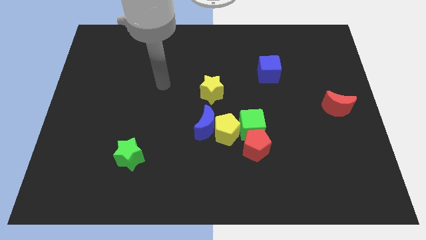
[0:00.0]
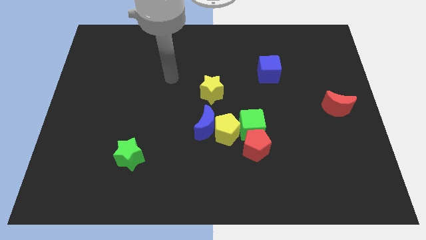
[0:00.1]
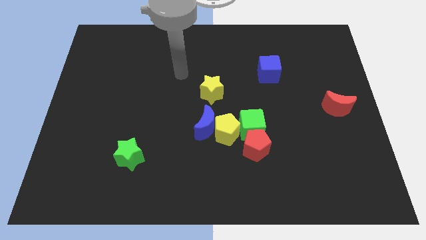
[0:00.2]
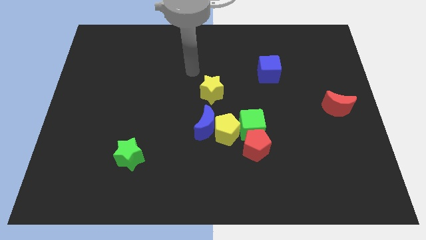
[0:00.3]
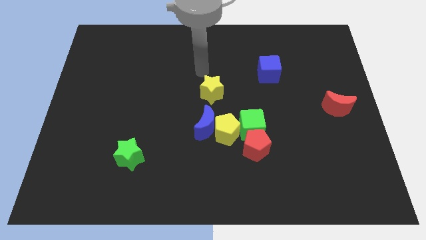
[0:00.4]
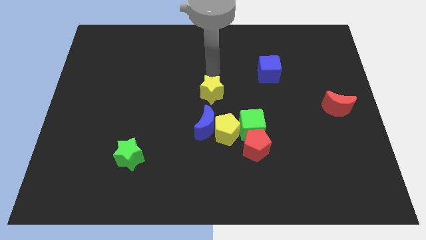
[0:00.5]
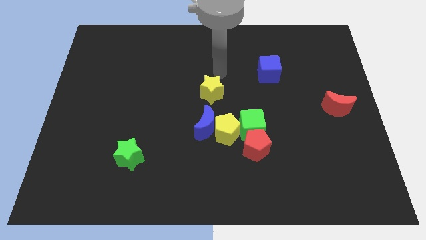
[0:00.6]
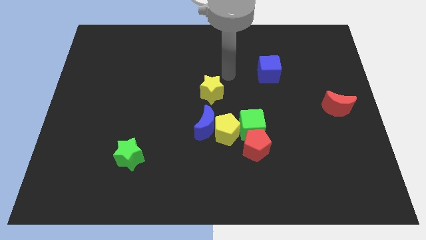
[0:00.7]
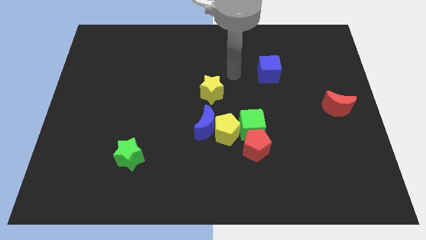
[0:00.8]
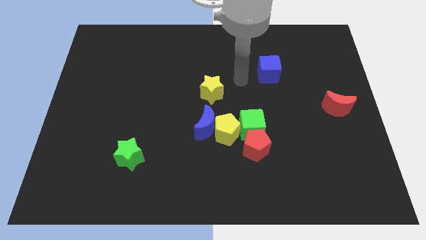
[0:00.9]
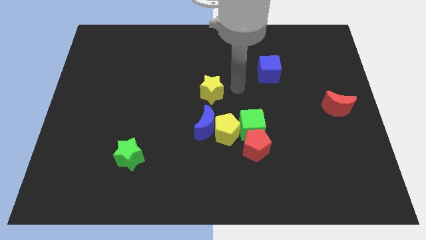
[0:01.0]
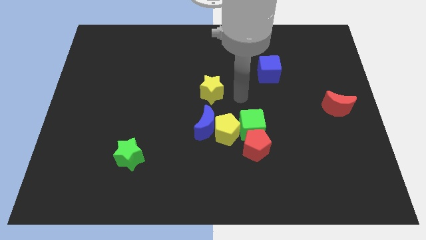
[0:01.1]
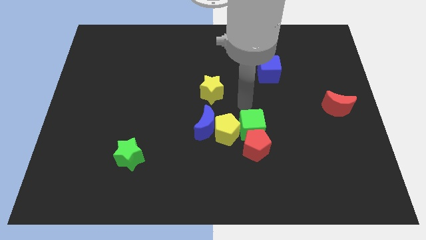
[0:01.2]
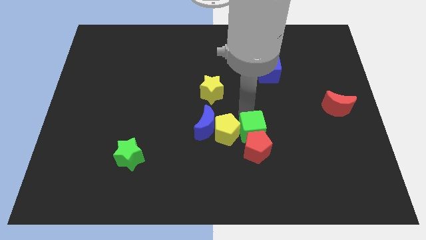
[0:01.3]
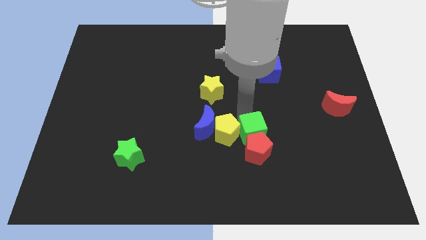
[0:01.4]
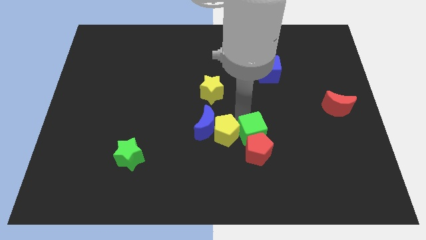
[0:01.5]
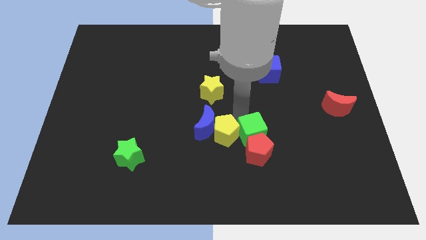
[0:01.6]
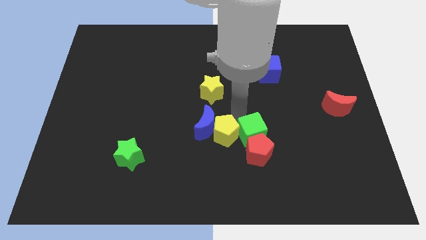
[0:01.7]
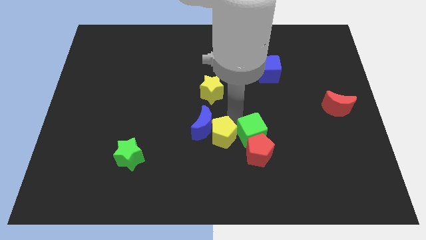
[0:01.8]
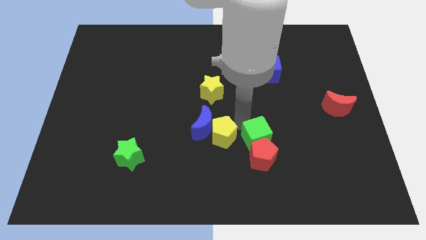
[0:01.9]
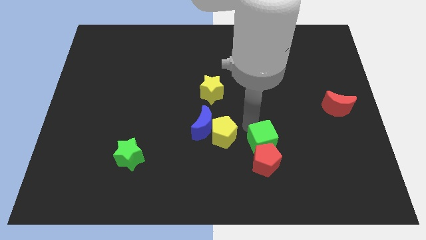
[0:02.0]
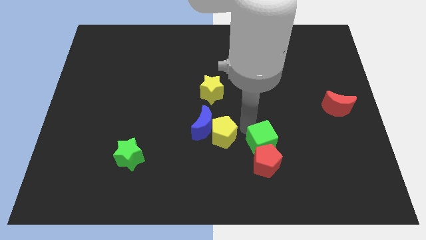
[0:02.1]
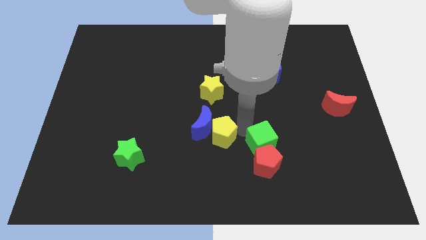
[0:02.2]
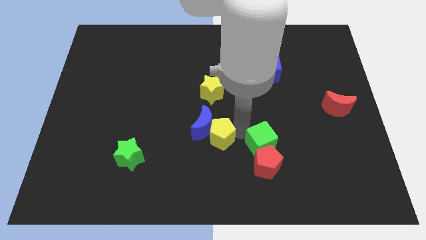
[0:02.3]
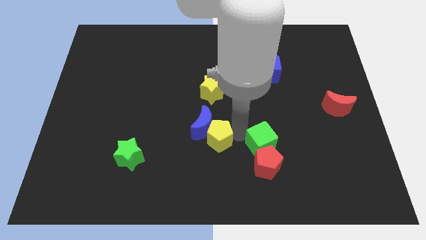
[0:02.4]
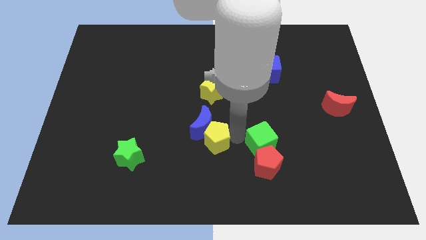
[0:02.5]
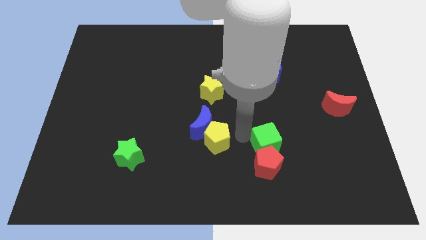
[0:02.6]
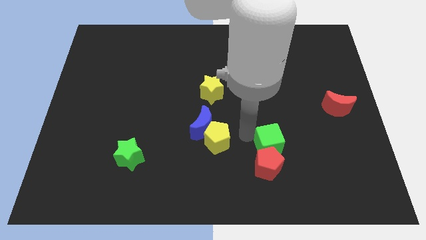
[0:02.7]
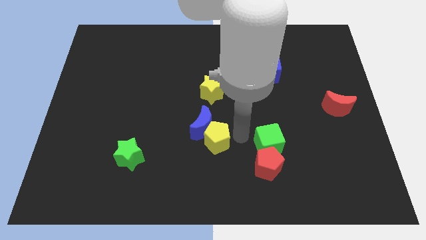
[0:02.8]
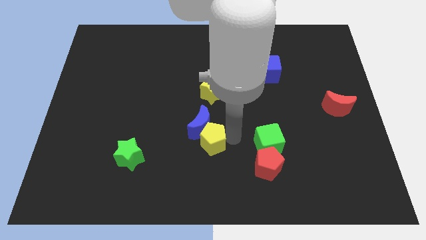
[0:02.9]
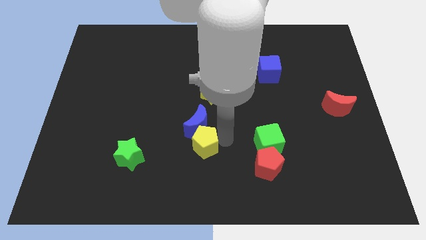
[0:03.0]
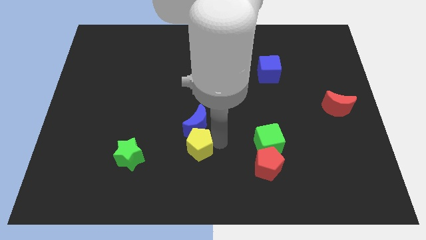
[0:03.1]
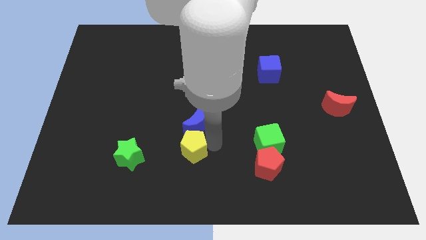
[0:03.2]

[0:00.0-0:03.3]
separate the yellow pentagon from the group of blocks

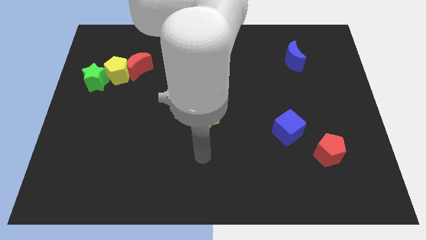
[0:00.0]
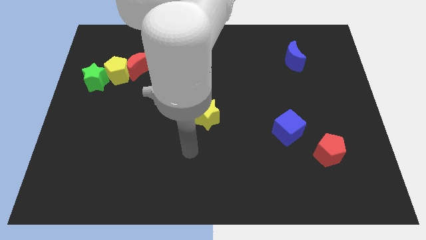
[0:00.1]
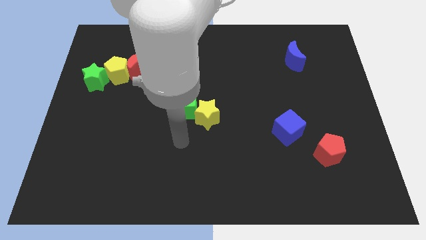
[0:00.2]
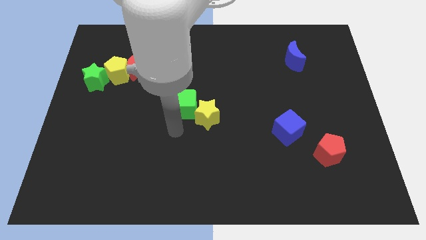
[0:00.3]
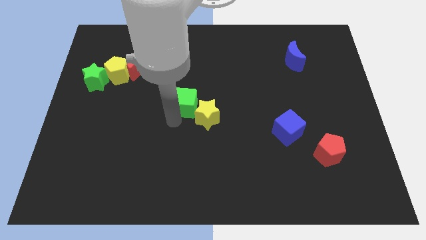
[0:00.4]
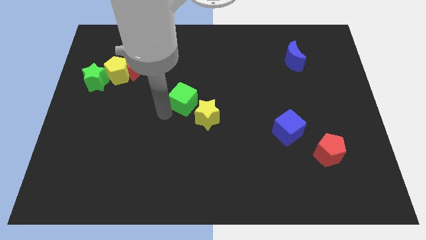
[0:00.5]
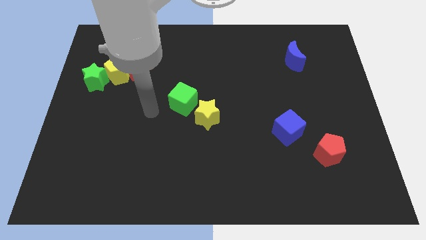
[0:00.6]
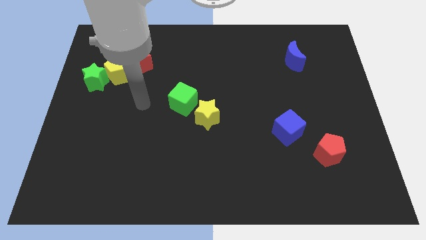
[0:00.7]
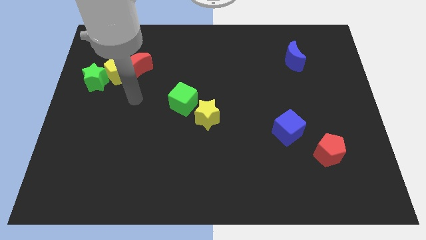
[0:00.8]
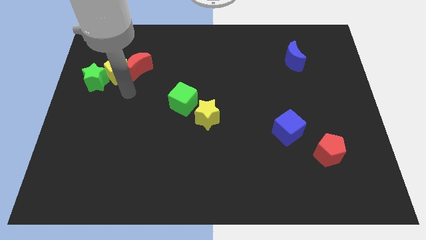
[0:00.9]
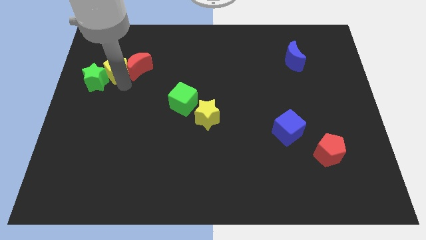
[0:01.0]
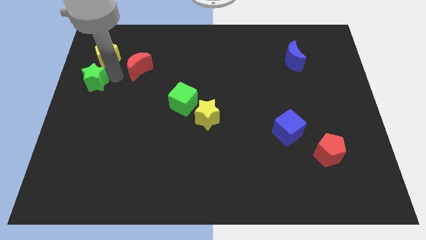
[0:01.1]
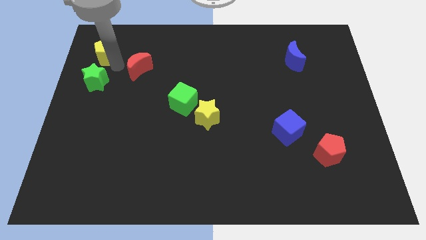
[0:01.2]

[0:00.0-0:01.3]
separate the red moon from the yellow pentagon

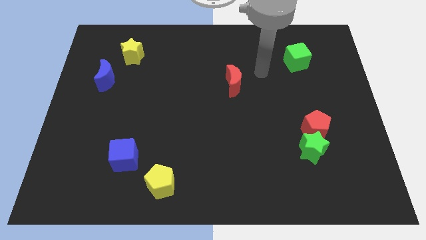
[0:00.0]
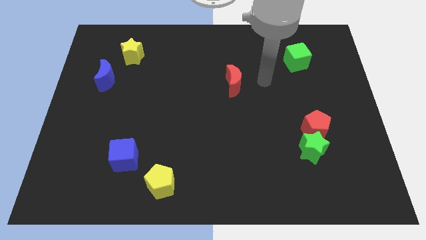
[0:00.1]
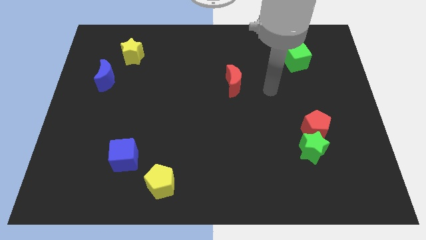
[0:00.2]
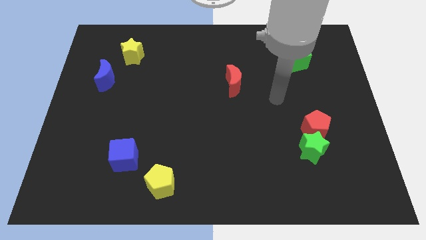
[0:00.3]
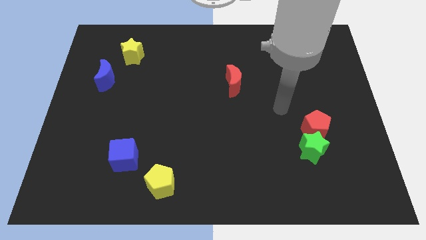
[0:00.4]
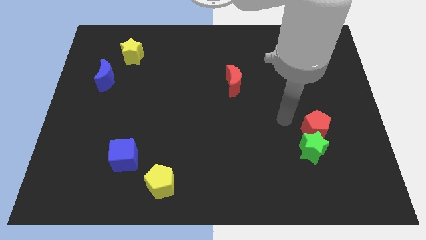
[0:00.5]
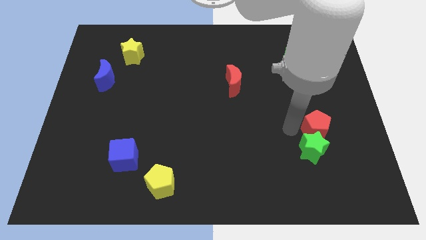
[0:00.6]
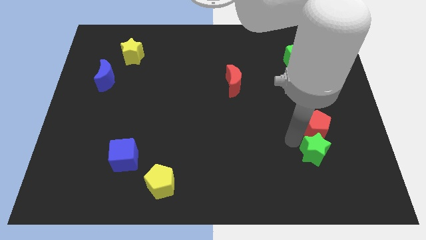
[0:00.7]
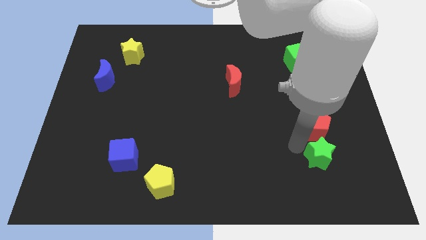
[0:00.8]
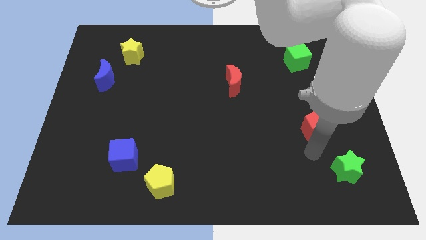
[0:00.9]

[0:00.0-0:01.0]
pull the red pentagon apart from the green star

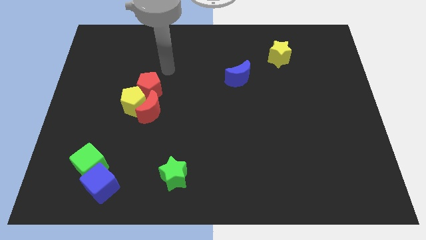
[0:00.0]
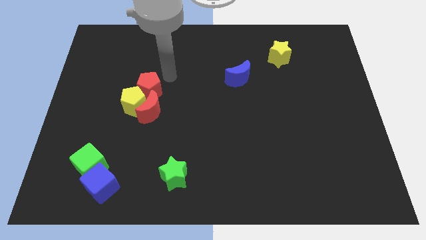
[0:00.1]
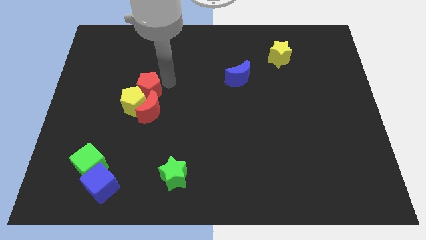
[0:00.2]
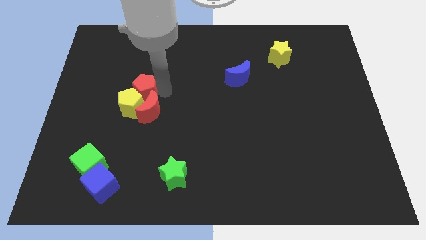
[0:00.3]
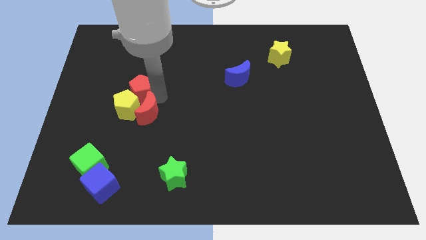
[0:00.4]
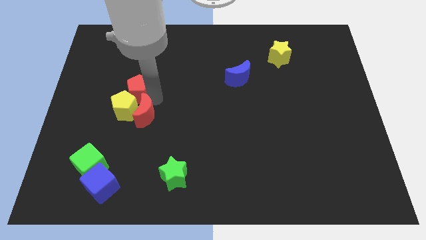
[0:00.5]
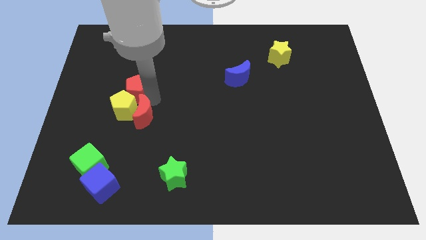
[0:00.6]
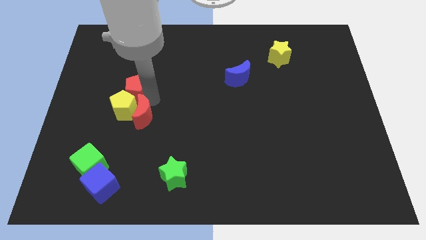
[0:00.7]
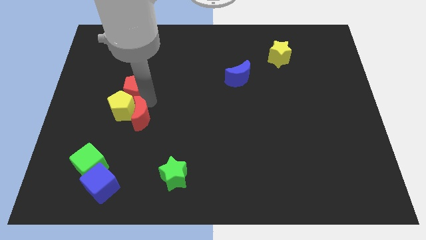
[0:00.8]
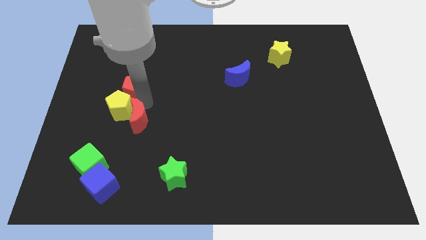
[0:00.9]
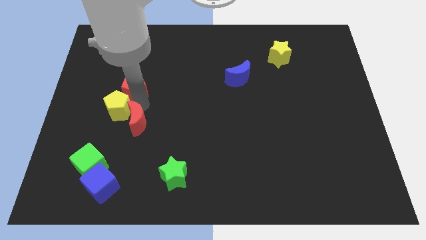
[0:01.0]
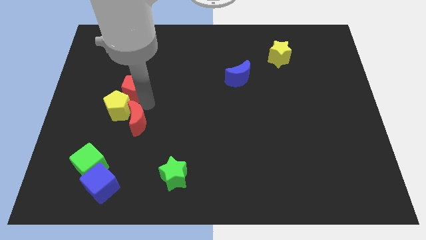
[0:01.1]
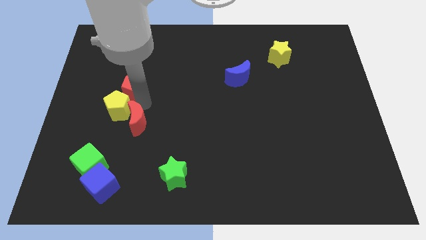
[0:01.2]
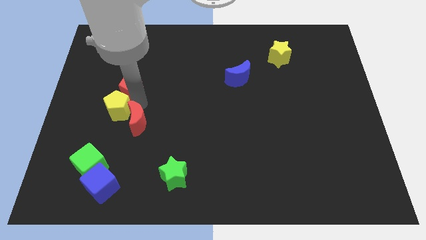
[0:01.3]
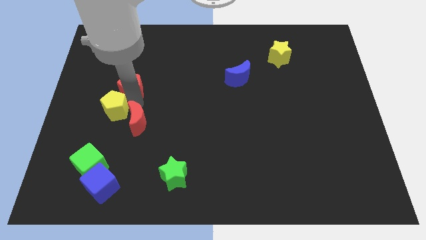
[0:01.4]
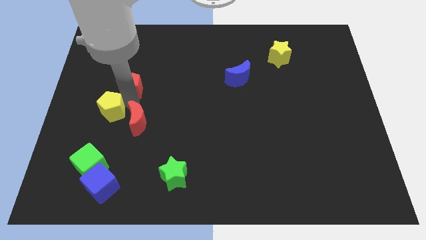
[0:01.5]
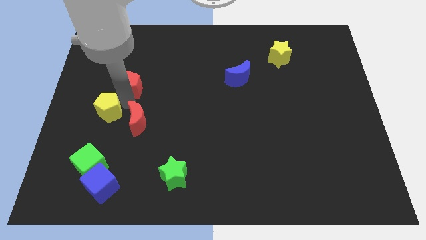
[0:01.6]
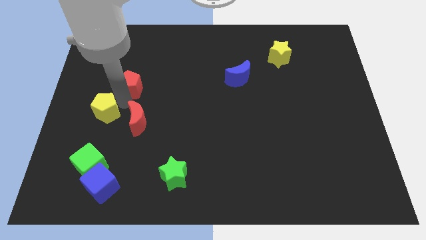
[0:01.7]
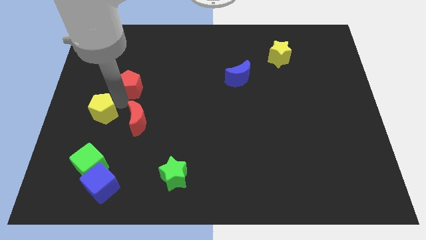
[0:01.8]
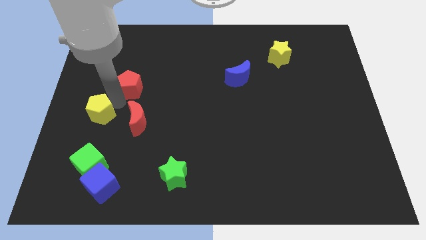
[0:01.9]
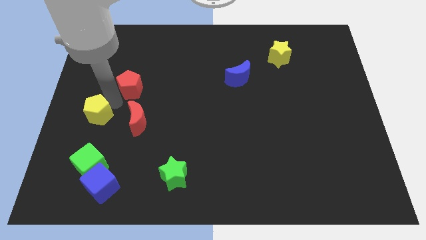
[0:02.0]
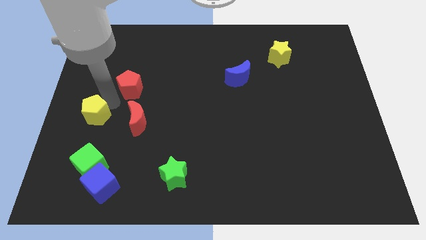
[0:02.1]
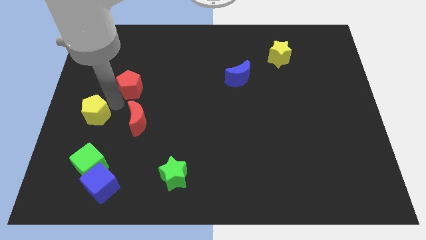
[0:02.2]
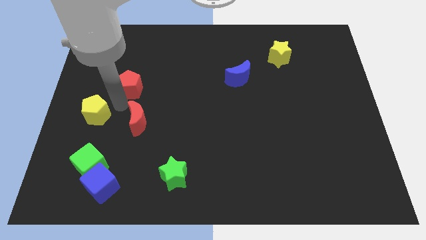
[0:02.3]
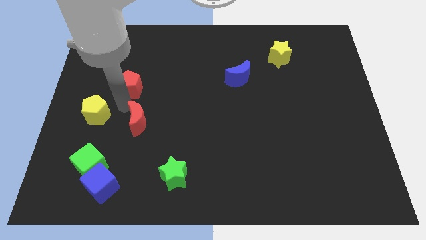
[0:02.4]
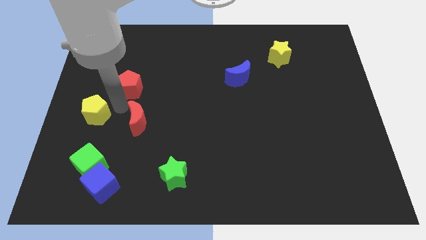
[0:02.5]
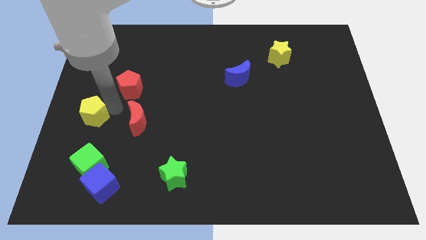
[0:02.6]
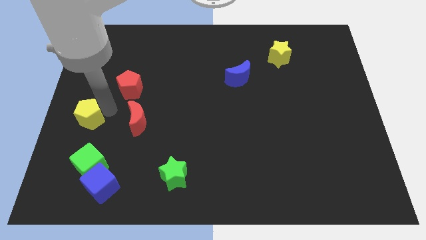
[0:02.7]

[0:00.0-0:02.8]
move the yellow pentagon away from the red moon and red pentagon

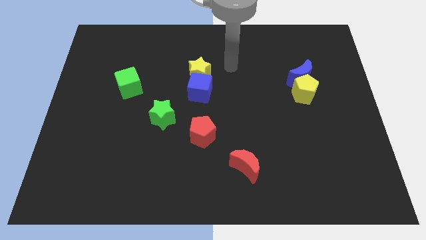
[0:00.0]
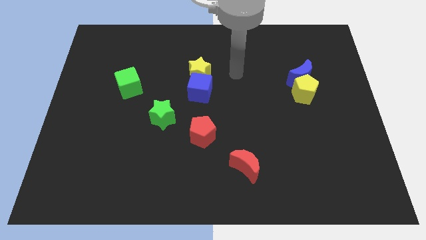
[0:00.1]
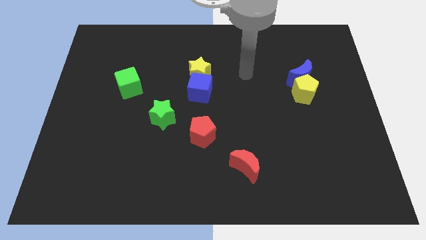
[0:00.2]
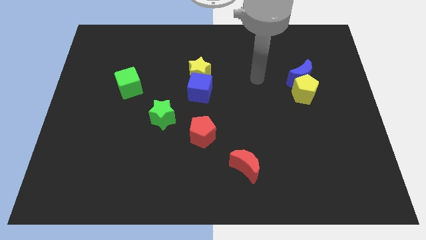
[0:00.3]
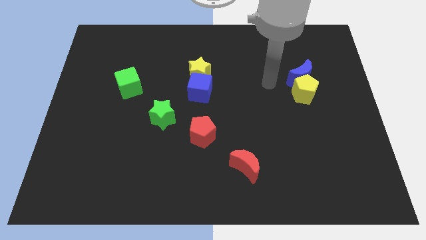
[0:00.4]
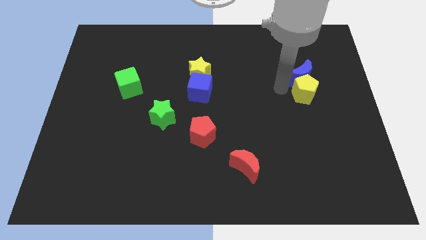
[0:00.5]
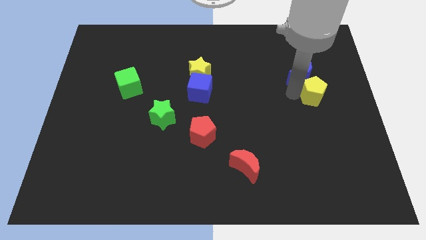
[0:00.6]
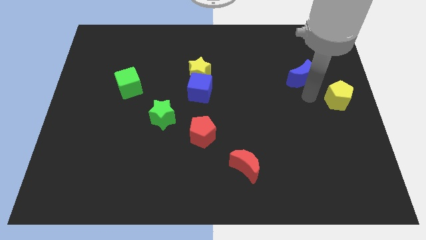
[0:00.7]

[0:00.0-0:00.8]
pull the blue moon apart from the yellow pentagon

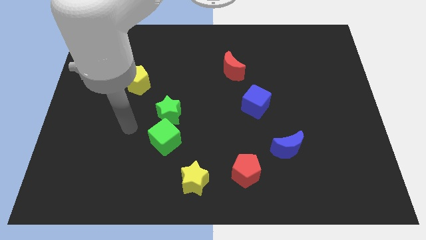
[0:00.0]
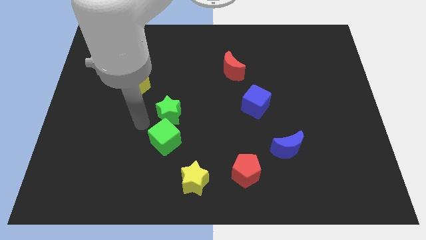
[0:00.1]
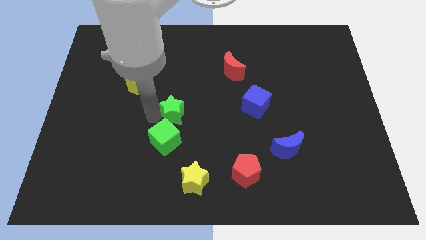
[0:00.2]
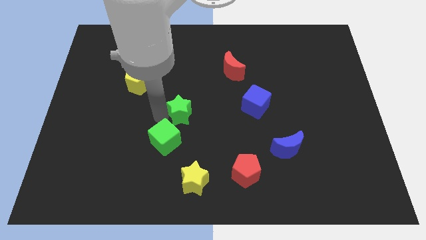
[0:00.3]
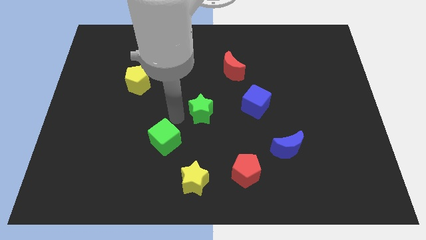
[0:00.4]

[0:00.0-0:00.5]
move the green cube away from the green star
